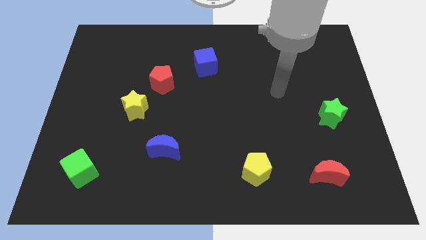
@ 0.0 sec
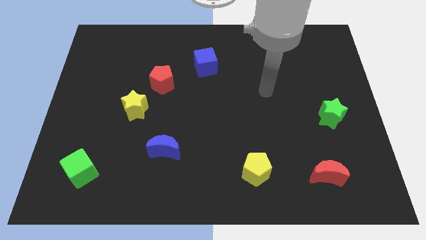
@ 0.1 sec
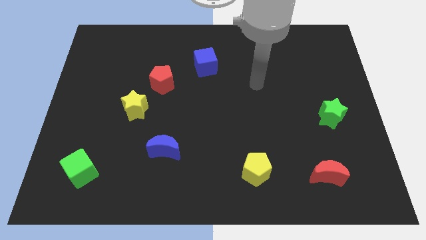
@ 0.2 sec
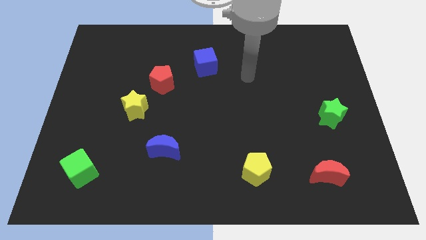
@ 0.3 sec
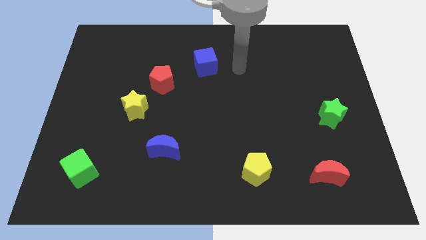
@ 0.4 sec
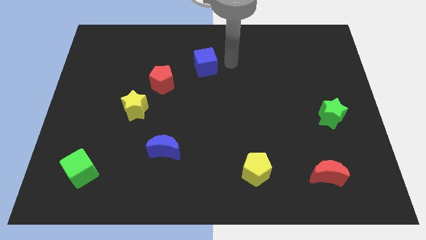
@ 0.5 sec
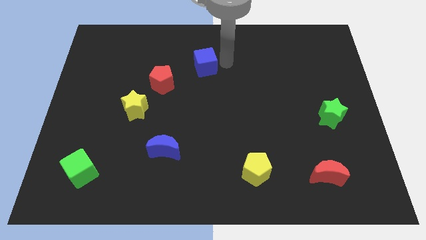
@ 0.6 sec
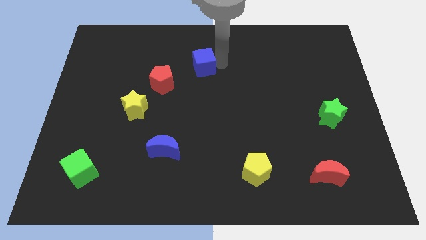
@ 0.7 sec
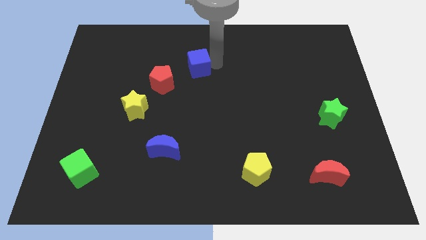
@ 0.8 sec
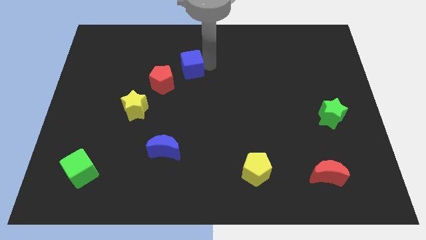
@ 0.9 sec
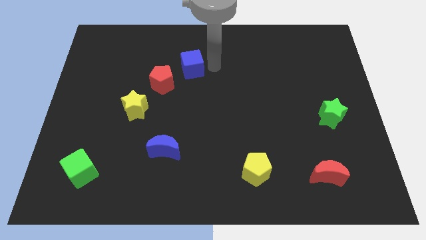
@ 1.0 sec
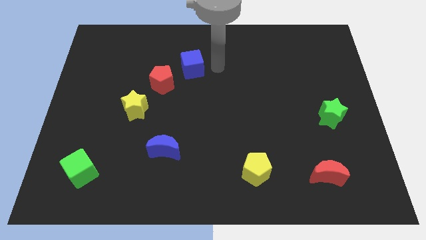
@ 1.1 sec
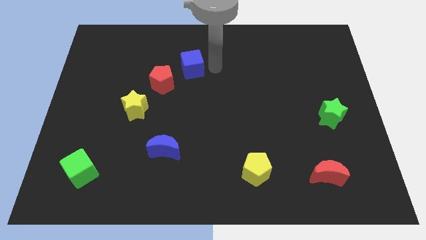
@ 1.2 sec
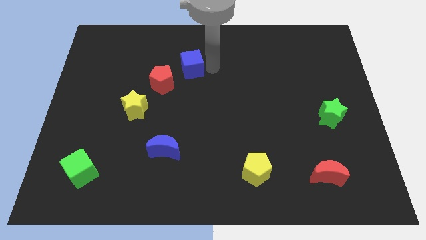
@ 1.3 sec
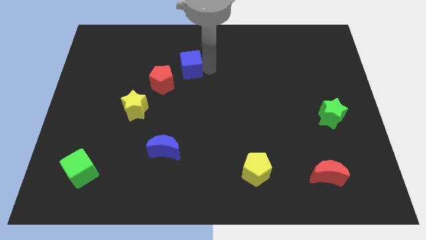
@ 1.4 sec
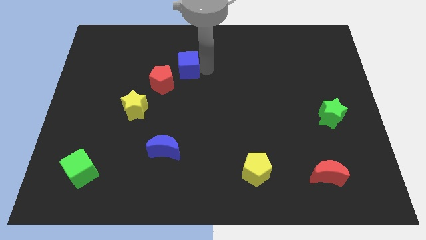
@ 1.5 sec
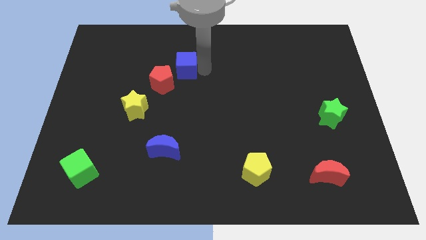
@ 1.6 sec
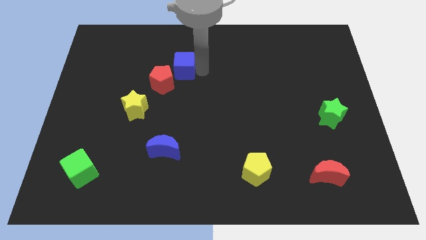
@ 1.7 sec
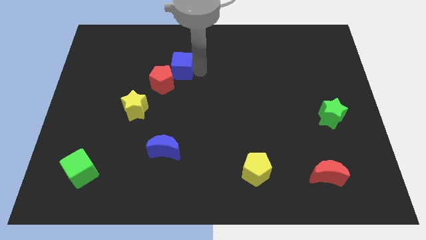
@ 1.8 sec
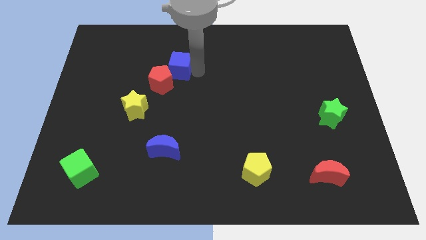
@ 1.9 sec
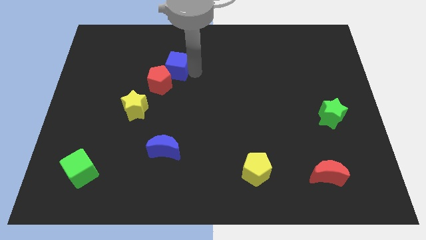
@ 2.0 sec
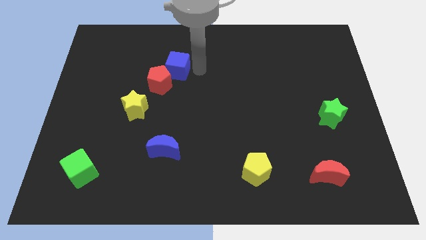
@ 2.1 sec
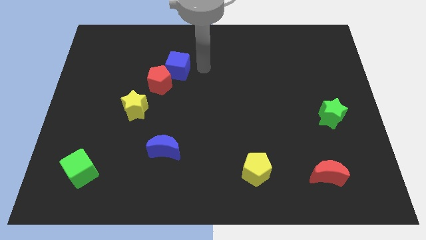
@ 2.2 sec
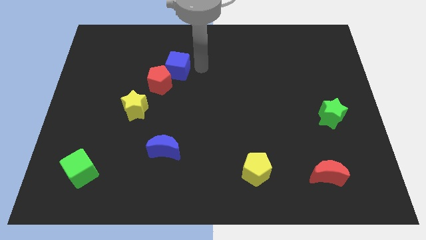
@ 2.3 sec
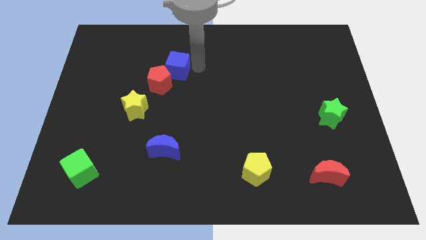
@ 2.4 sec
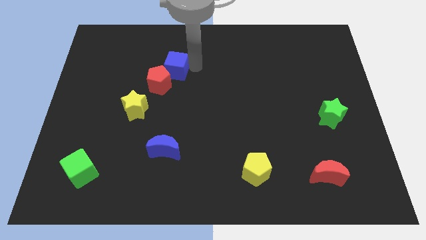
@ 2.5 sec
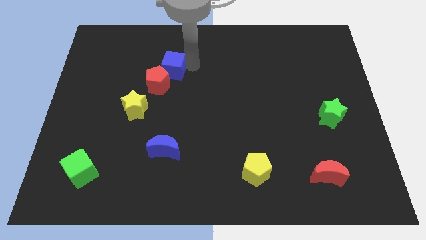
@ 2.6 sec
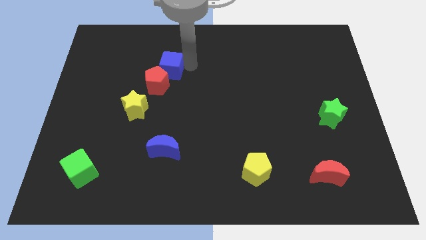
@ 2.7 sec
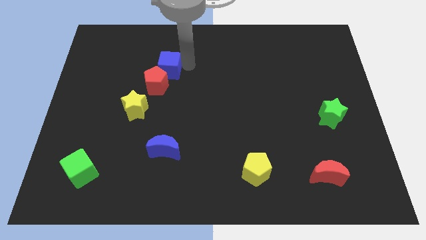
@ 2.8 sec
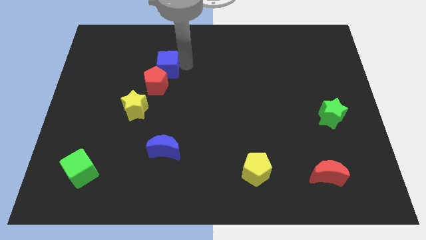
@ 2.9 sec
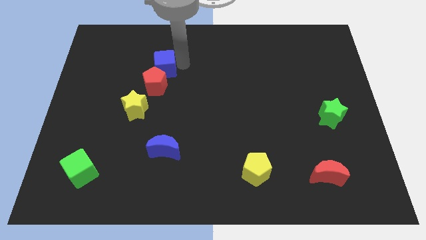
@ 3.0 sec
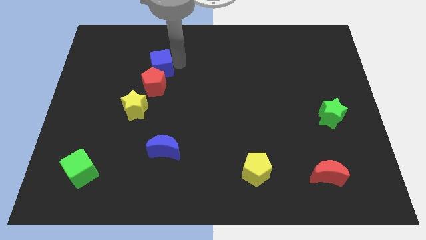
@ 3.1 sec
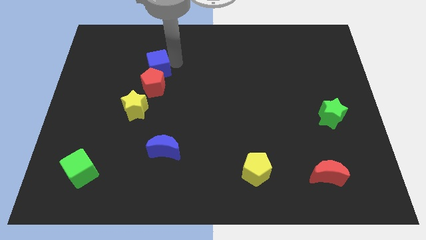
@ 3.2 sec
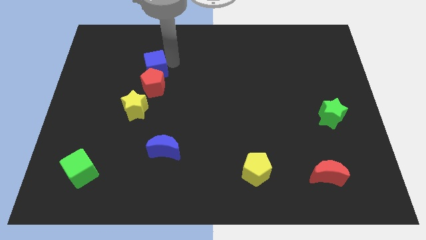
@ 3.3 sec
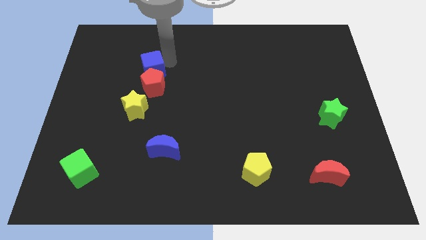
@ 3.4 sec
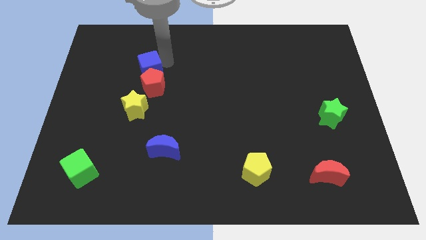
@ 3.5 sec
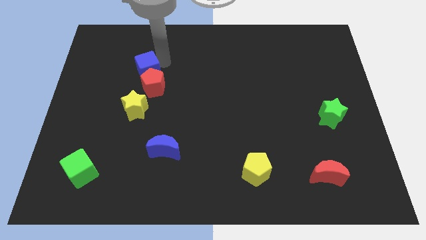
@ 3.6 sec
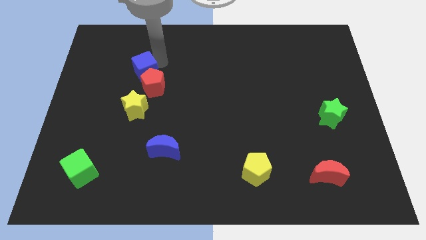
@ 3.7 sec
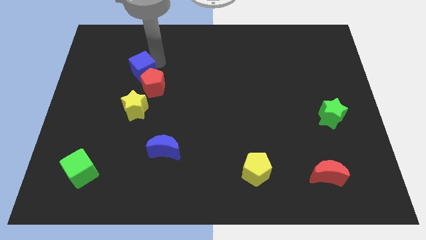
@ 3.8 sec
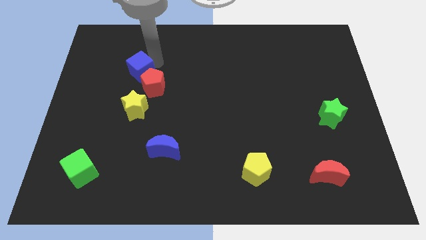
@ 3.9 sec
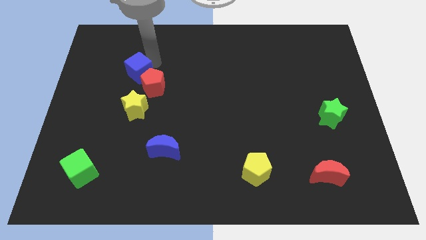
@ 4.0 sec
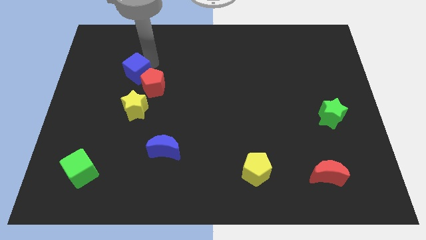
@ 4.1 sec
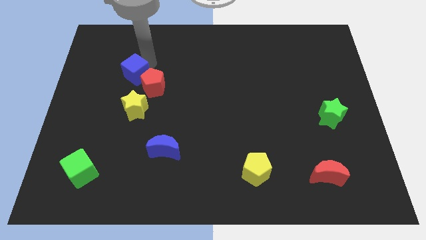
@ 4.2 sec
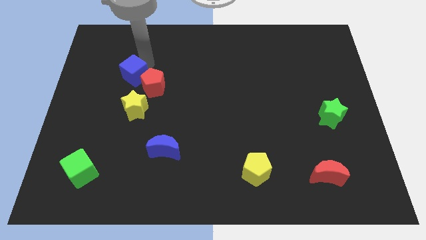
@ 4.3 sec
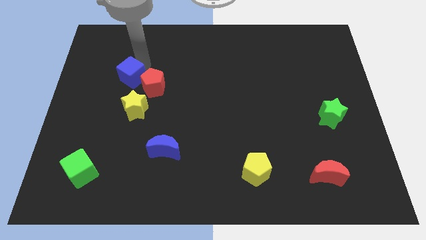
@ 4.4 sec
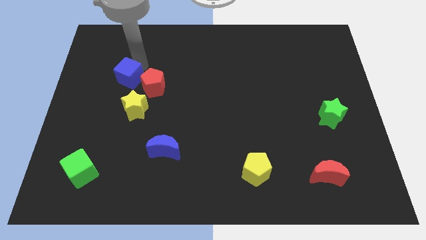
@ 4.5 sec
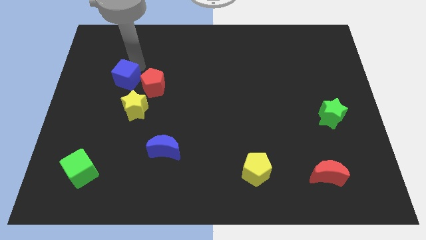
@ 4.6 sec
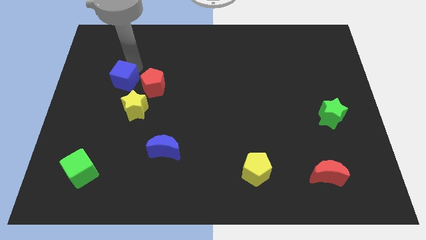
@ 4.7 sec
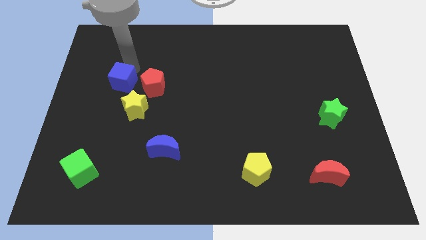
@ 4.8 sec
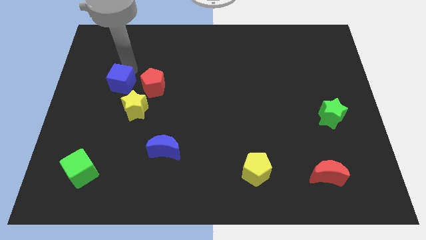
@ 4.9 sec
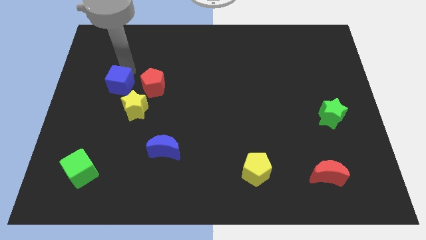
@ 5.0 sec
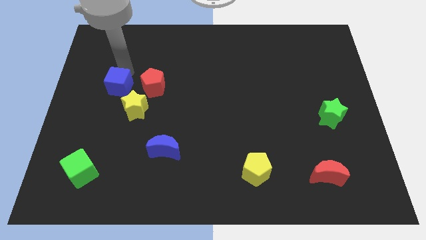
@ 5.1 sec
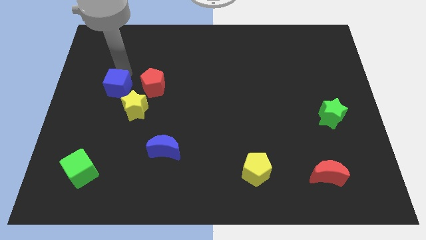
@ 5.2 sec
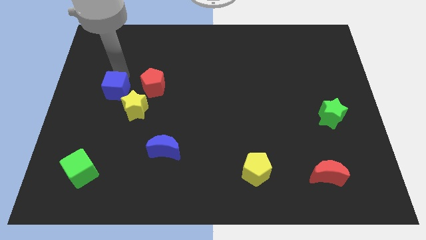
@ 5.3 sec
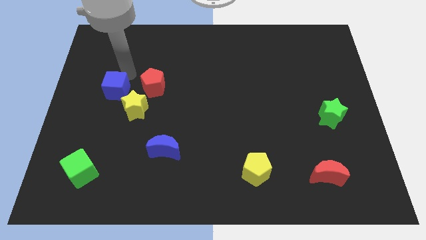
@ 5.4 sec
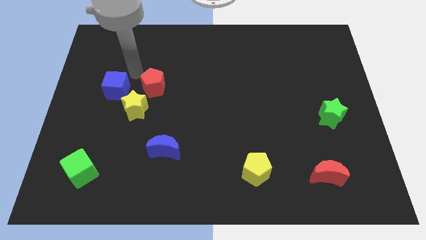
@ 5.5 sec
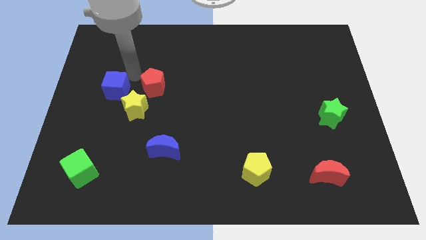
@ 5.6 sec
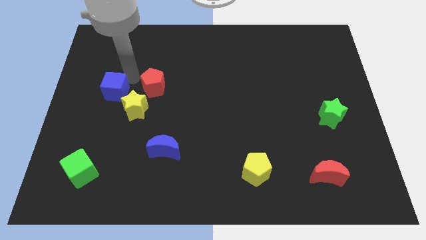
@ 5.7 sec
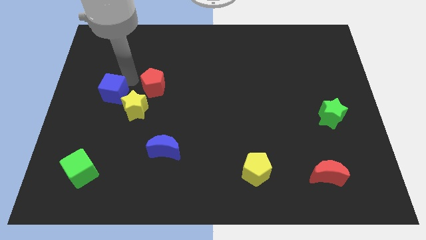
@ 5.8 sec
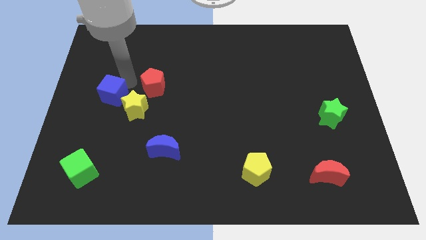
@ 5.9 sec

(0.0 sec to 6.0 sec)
move the blue cube left of the yellow star

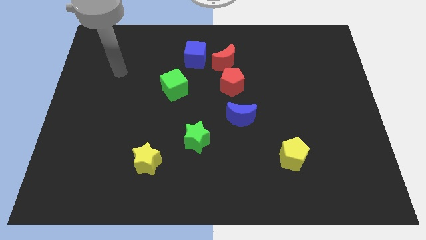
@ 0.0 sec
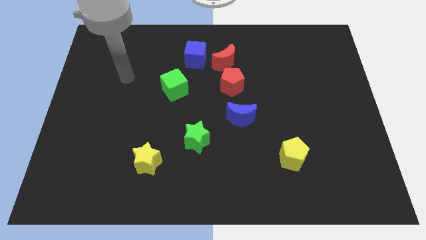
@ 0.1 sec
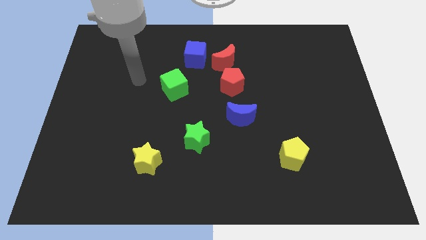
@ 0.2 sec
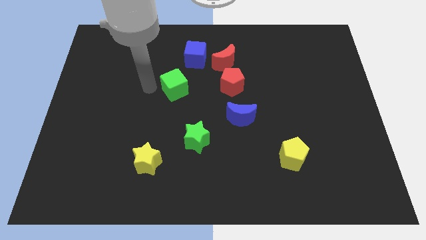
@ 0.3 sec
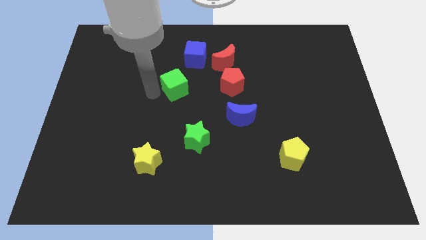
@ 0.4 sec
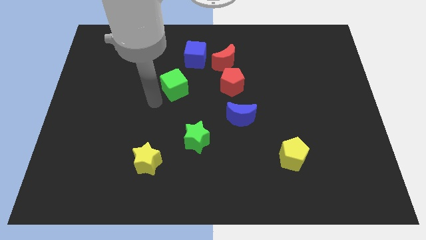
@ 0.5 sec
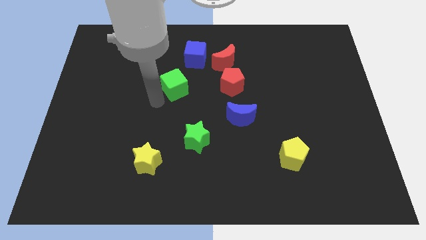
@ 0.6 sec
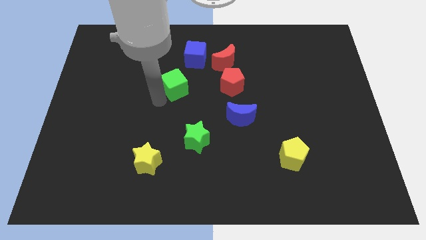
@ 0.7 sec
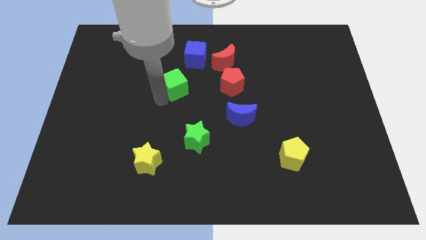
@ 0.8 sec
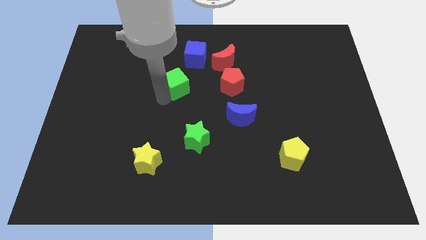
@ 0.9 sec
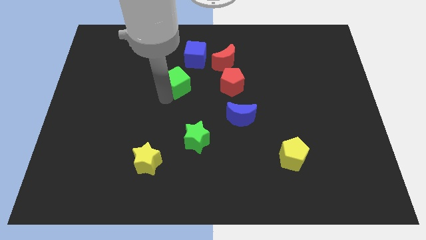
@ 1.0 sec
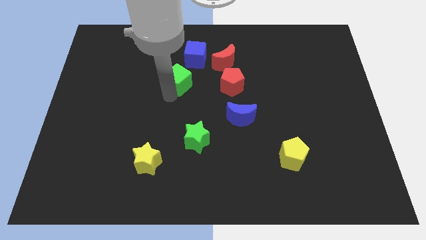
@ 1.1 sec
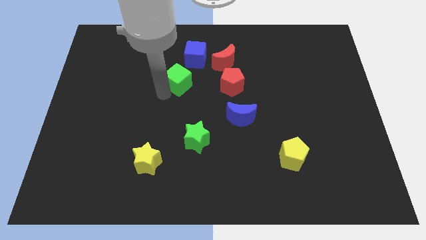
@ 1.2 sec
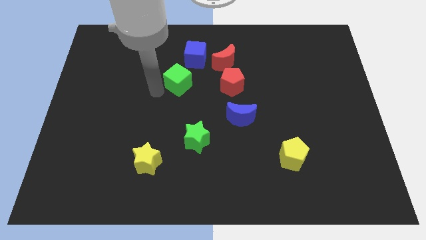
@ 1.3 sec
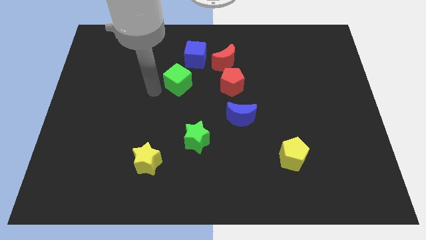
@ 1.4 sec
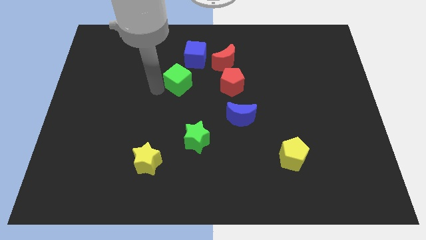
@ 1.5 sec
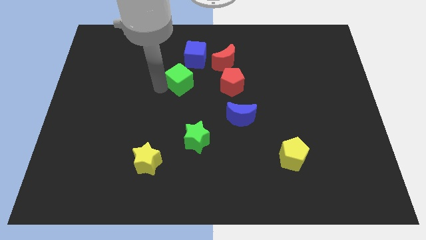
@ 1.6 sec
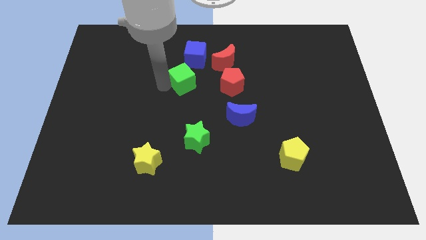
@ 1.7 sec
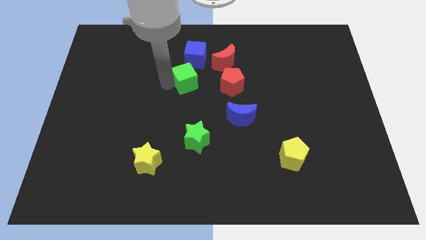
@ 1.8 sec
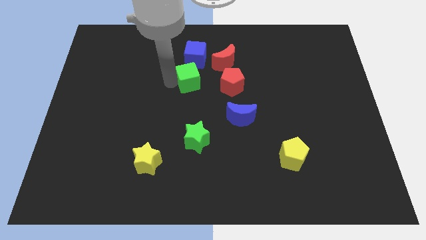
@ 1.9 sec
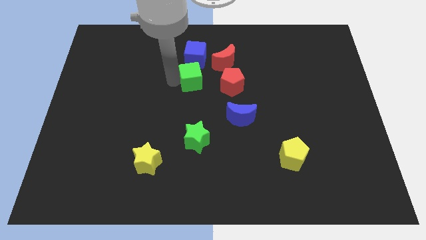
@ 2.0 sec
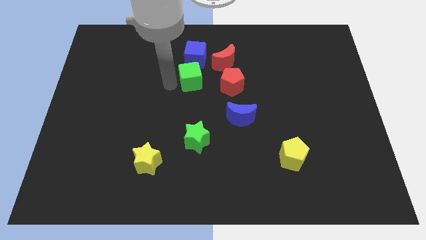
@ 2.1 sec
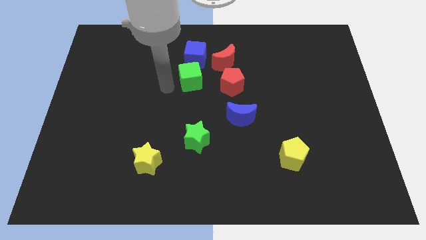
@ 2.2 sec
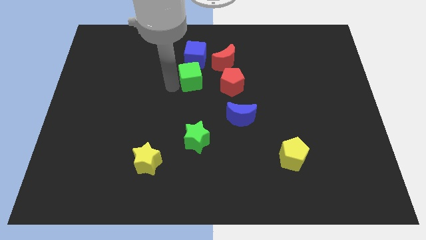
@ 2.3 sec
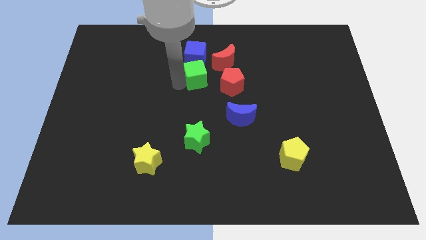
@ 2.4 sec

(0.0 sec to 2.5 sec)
push the green cube to the bottom right of the blue cube
